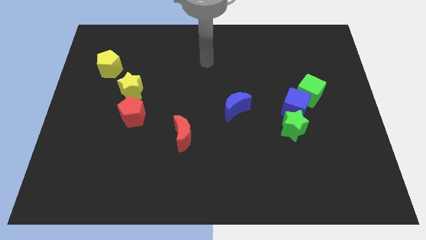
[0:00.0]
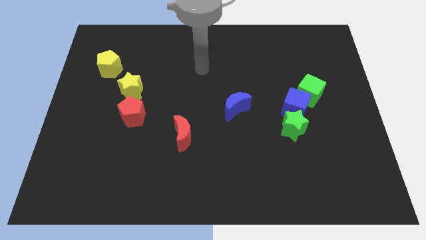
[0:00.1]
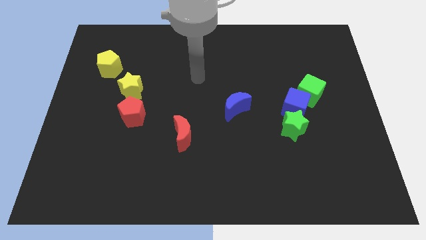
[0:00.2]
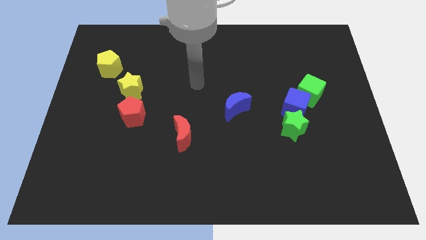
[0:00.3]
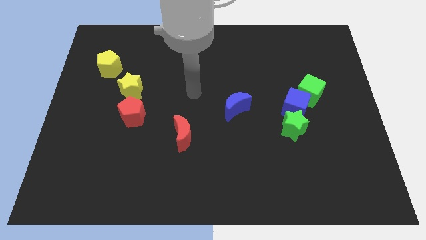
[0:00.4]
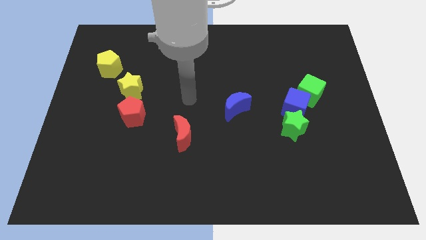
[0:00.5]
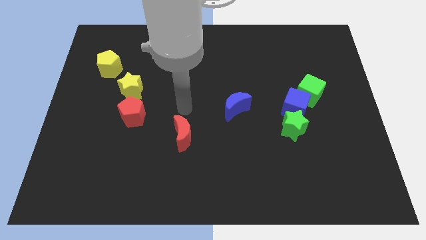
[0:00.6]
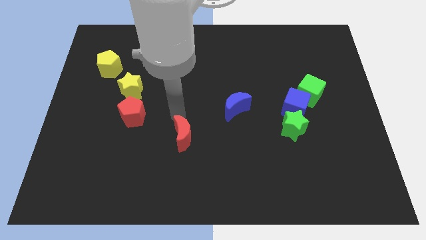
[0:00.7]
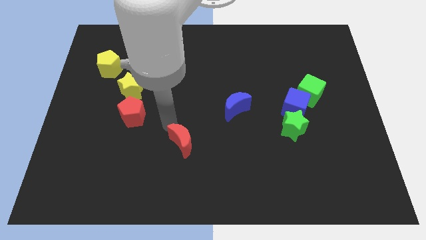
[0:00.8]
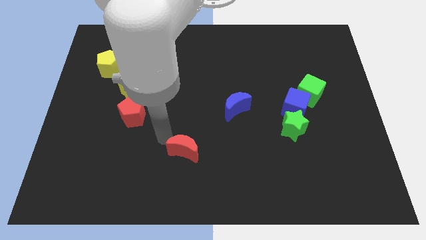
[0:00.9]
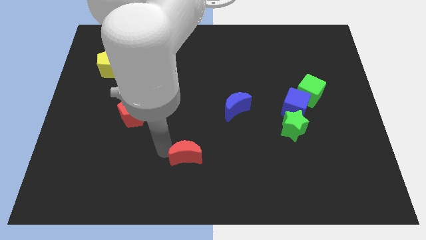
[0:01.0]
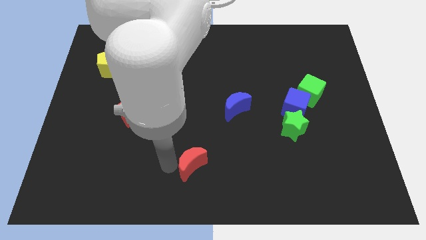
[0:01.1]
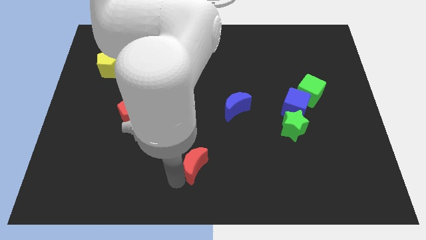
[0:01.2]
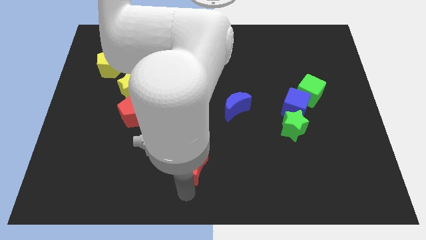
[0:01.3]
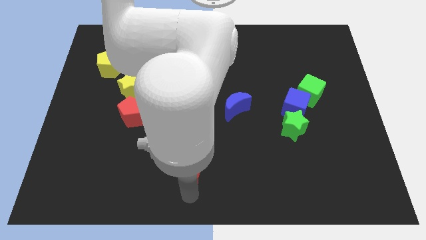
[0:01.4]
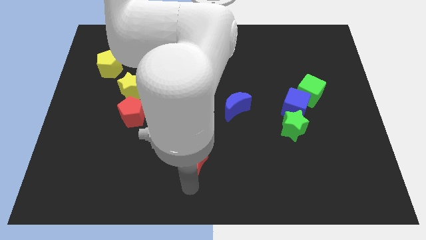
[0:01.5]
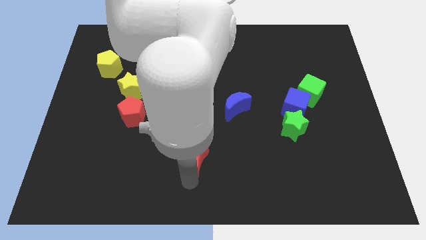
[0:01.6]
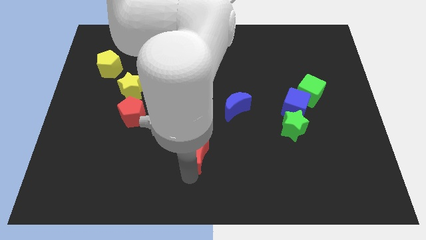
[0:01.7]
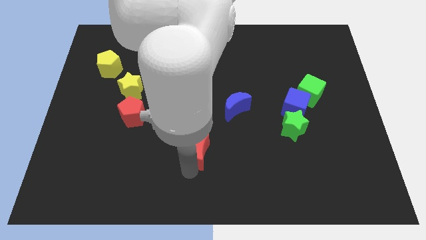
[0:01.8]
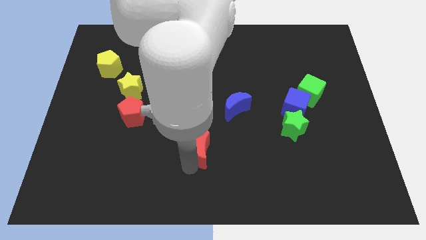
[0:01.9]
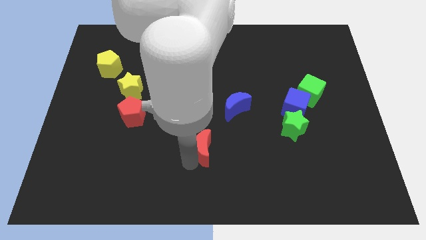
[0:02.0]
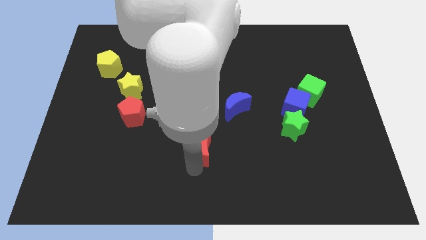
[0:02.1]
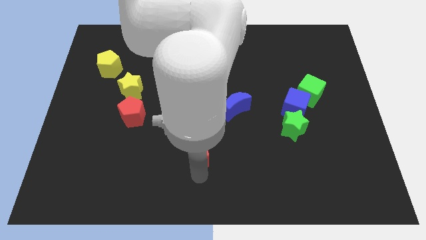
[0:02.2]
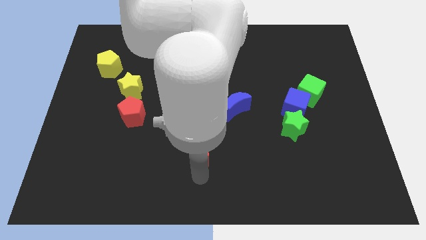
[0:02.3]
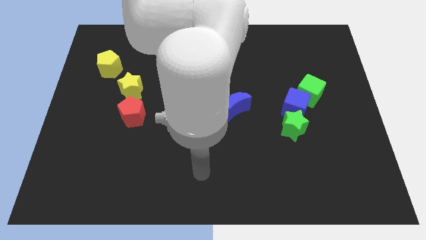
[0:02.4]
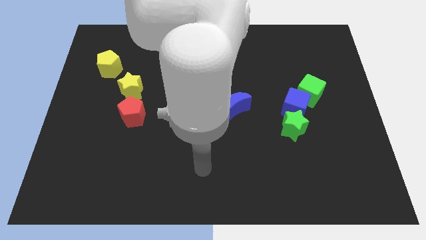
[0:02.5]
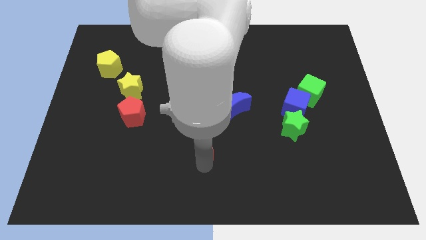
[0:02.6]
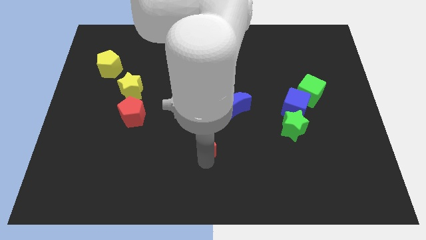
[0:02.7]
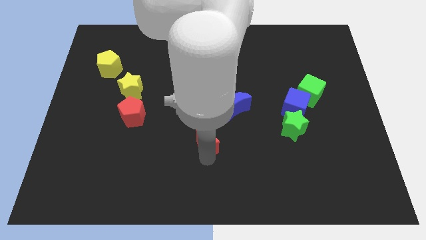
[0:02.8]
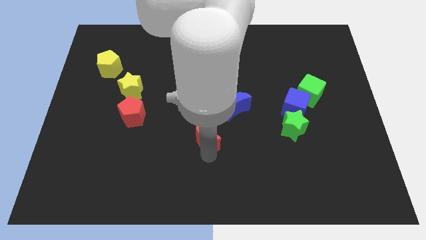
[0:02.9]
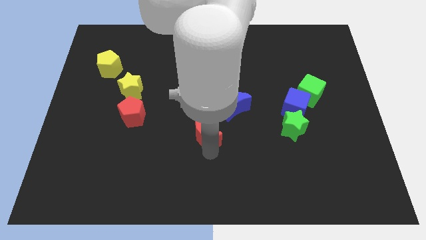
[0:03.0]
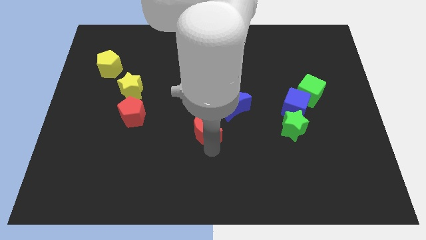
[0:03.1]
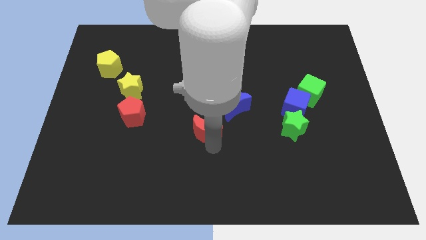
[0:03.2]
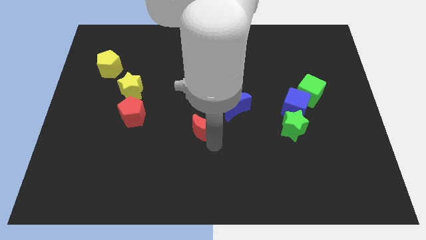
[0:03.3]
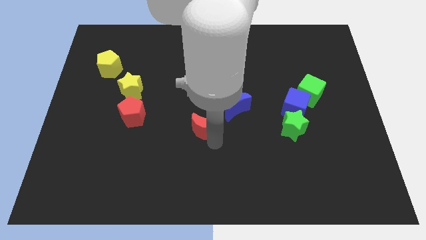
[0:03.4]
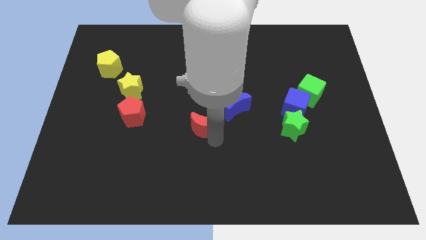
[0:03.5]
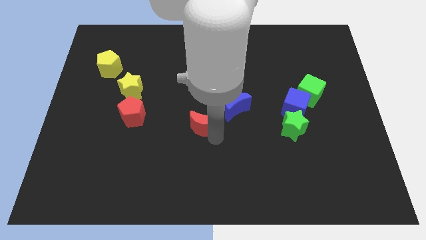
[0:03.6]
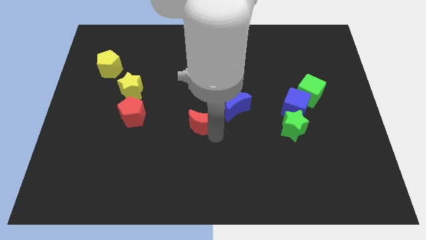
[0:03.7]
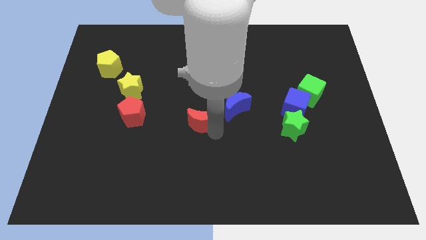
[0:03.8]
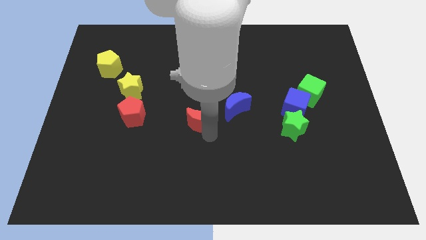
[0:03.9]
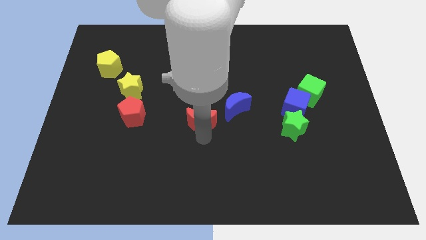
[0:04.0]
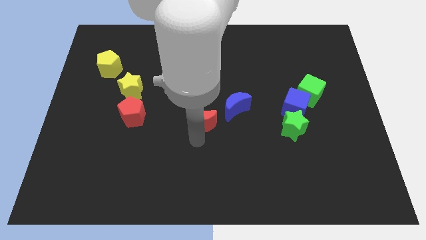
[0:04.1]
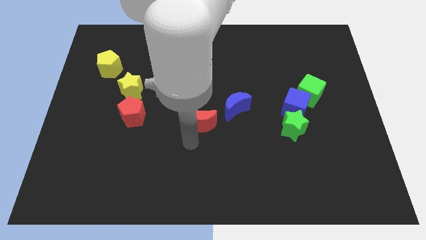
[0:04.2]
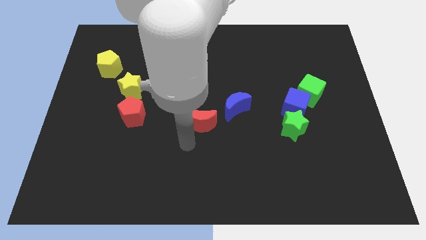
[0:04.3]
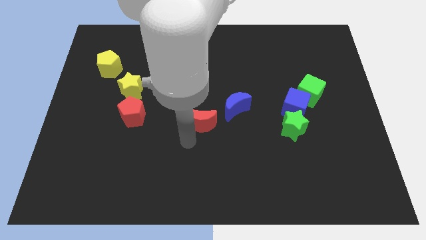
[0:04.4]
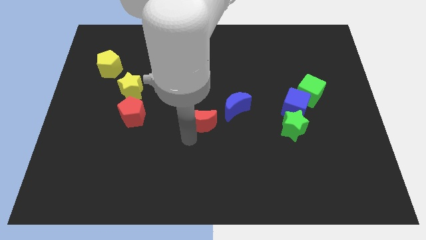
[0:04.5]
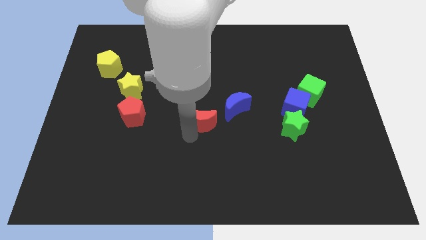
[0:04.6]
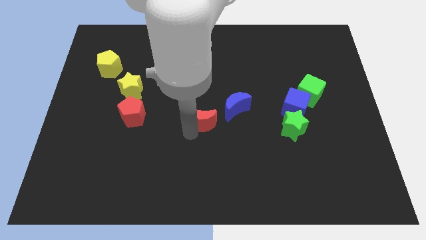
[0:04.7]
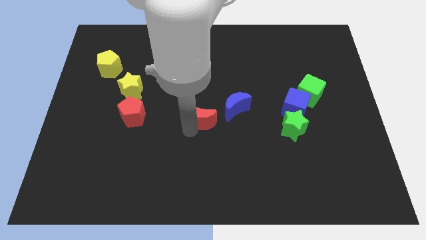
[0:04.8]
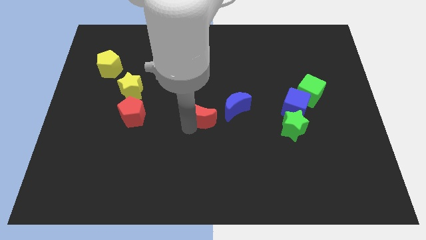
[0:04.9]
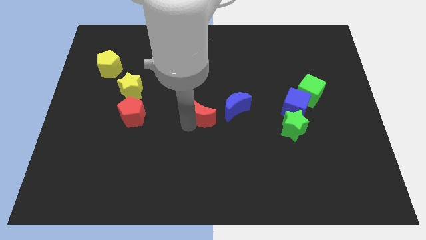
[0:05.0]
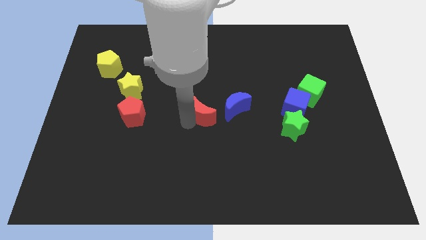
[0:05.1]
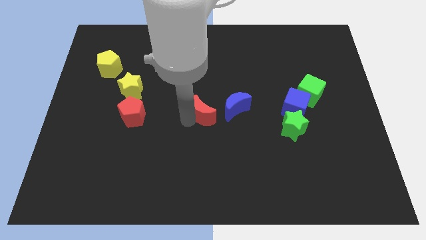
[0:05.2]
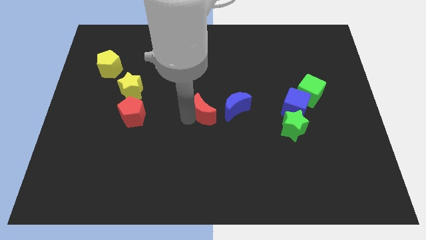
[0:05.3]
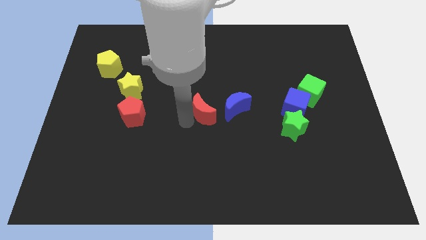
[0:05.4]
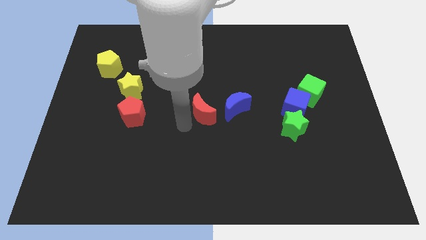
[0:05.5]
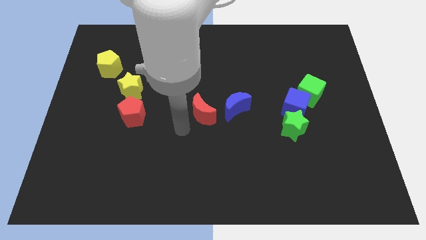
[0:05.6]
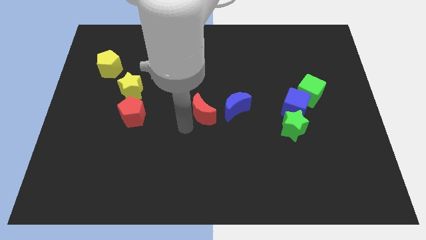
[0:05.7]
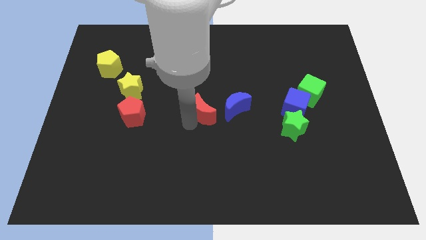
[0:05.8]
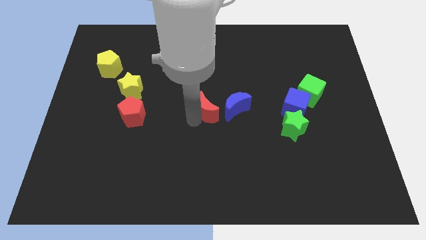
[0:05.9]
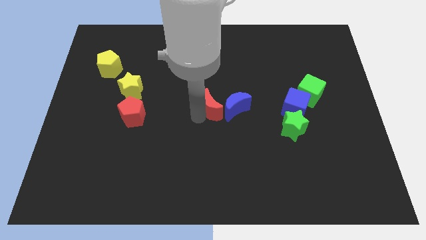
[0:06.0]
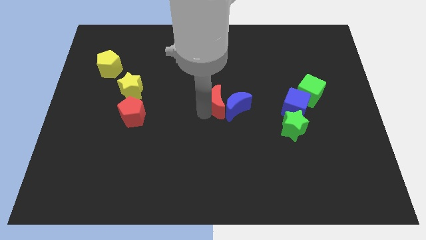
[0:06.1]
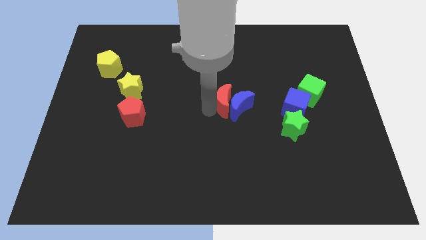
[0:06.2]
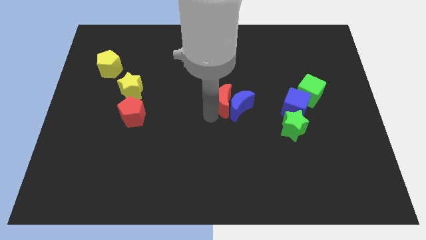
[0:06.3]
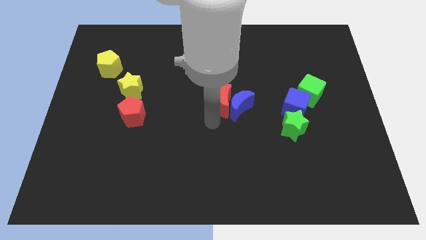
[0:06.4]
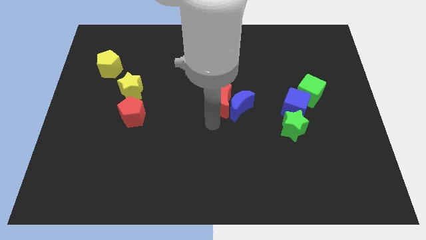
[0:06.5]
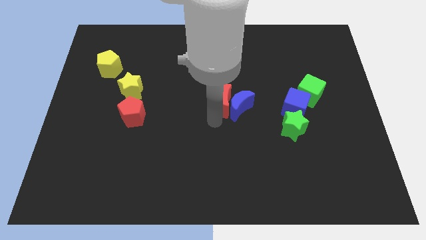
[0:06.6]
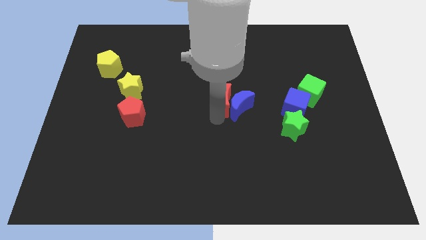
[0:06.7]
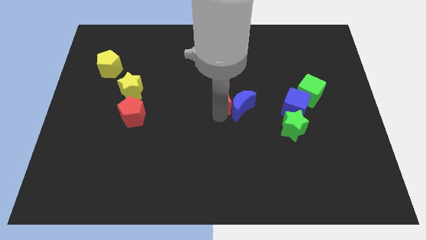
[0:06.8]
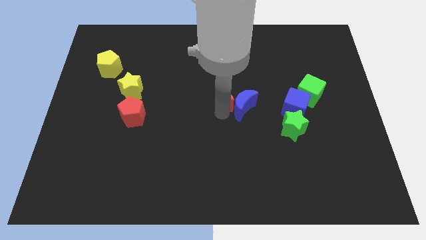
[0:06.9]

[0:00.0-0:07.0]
slide the red moon to the top side of the blue moon
